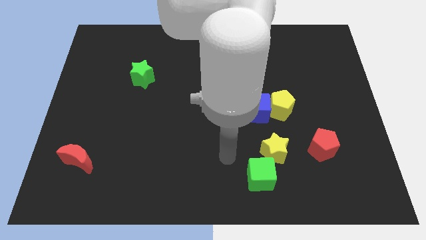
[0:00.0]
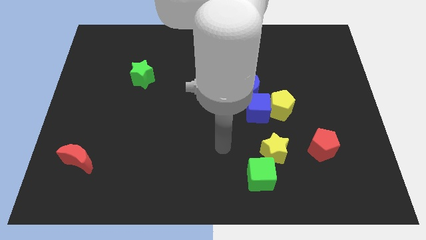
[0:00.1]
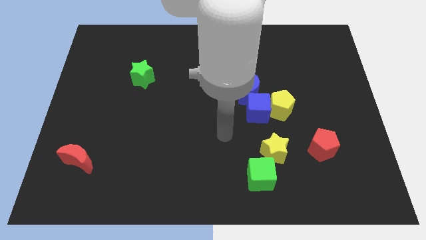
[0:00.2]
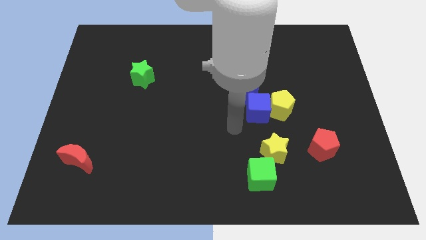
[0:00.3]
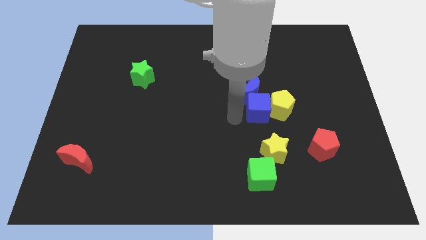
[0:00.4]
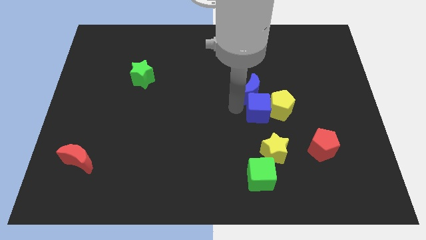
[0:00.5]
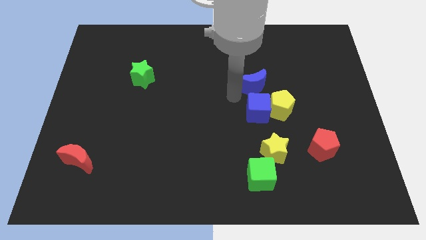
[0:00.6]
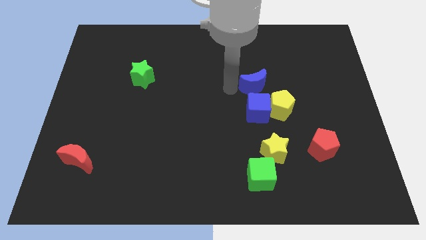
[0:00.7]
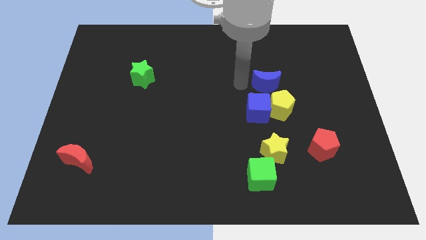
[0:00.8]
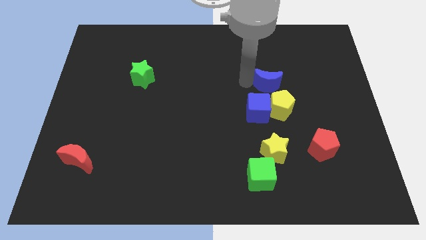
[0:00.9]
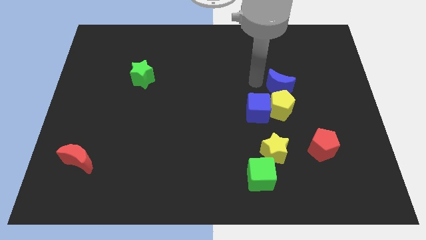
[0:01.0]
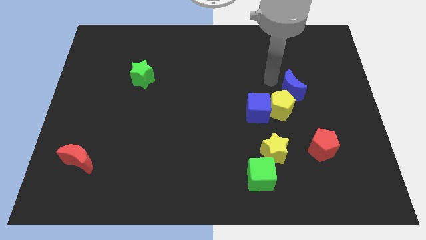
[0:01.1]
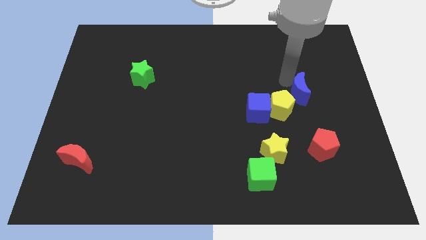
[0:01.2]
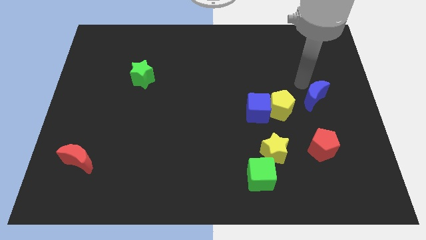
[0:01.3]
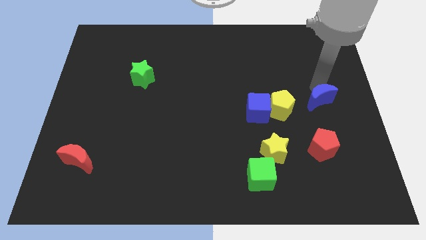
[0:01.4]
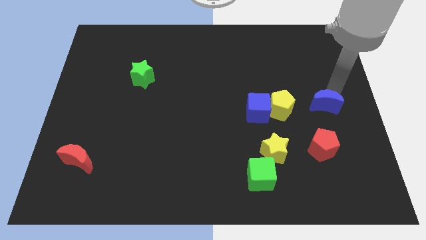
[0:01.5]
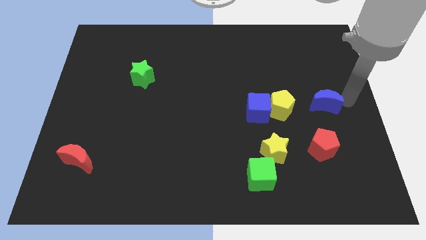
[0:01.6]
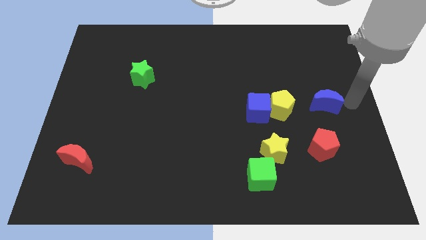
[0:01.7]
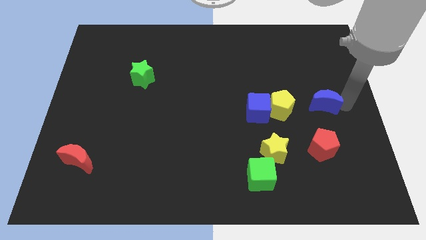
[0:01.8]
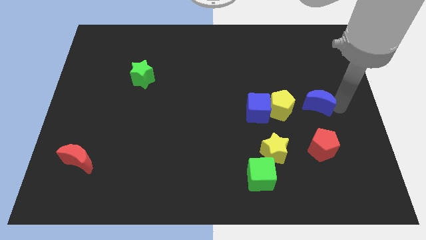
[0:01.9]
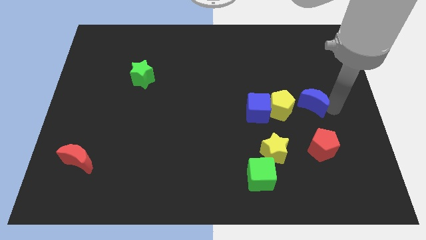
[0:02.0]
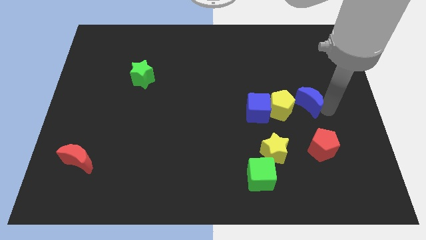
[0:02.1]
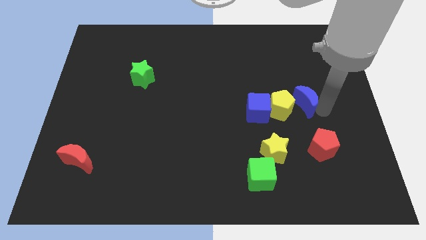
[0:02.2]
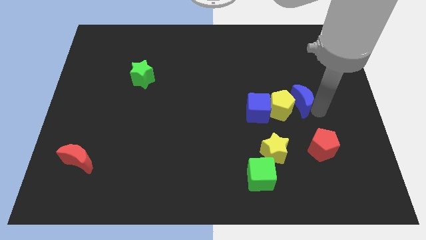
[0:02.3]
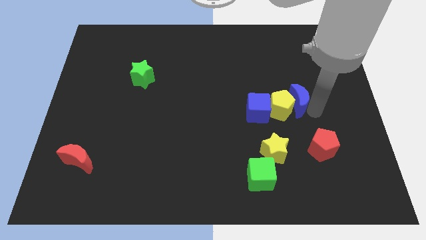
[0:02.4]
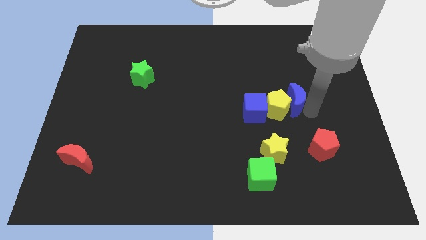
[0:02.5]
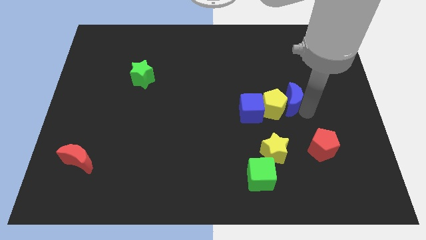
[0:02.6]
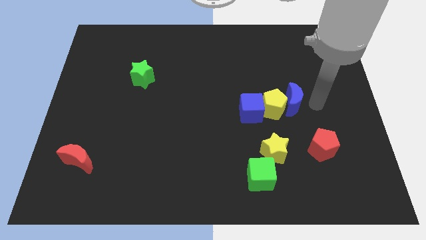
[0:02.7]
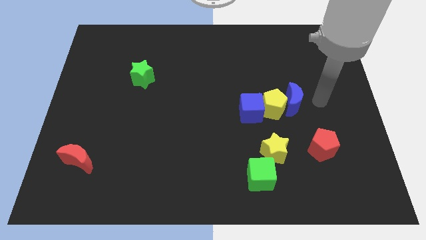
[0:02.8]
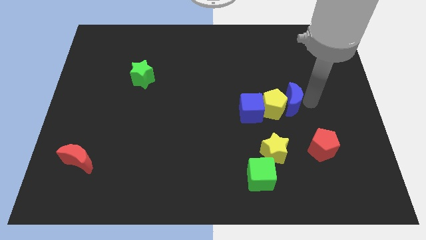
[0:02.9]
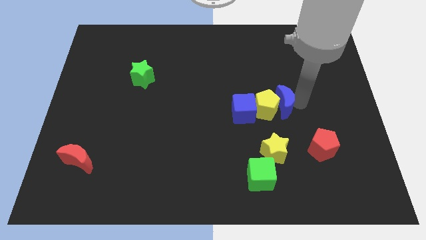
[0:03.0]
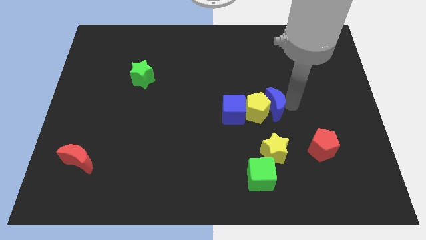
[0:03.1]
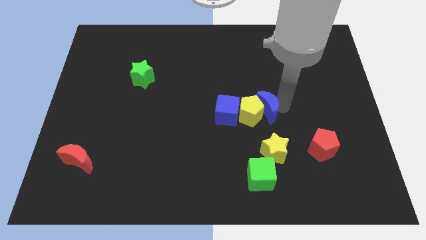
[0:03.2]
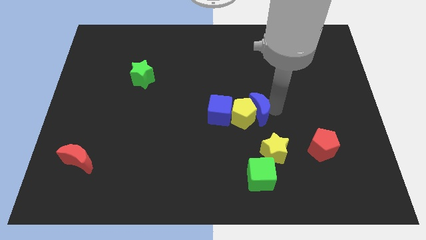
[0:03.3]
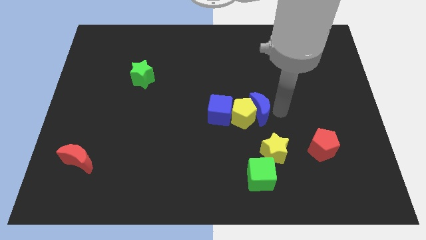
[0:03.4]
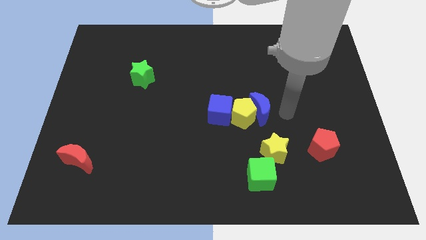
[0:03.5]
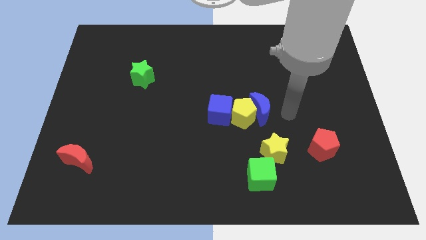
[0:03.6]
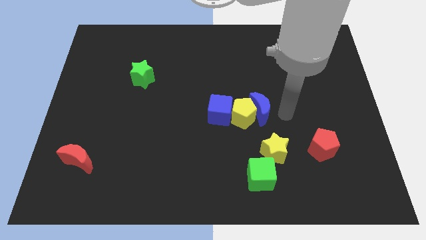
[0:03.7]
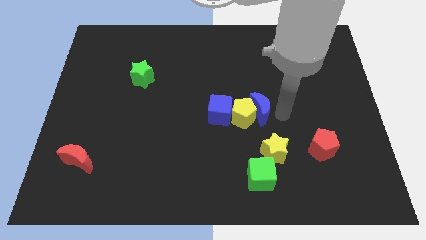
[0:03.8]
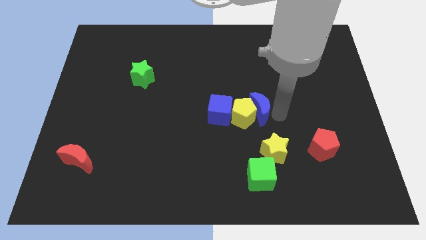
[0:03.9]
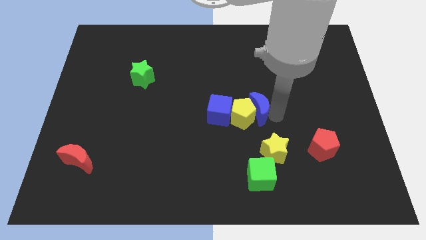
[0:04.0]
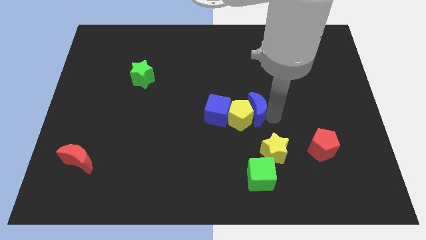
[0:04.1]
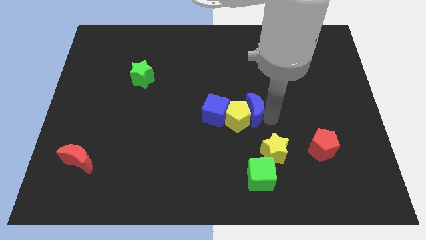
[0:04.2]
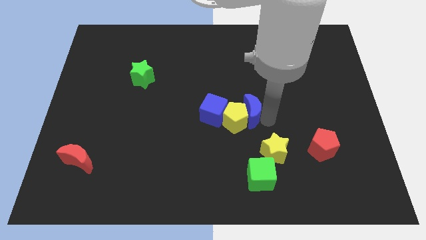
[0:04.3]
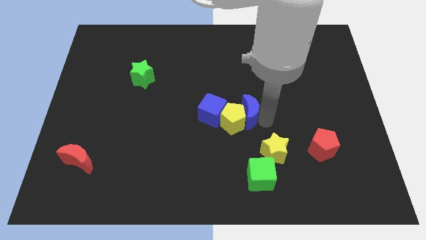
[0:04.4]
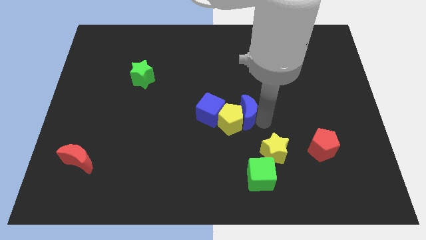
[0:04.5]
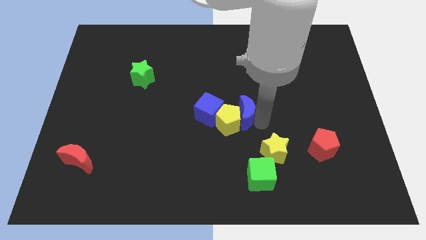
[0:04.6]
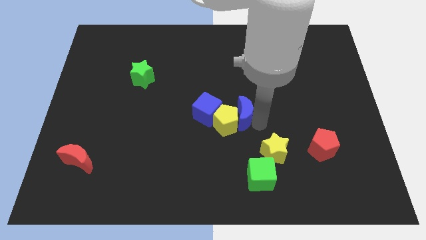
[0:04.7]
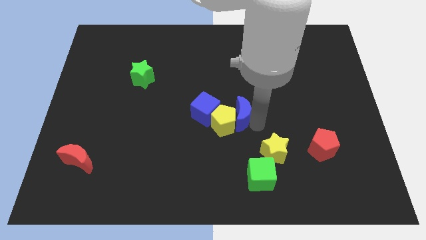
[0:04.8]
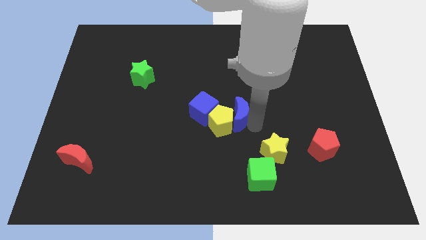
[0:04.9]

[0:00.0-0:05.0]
slightly slide the blue moon diagonally downwards and left

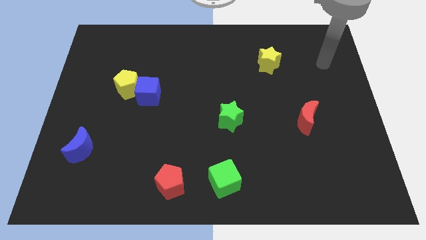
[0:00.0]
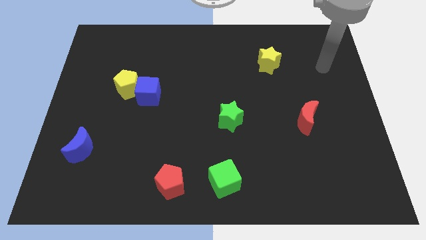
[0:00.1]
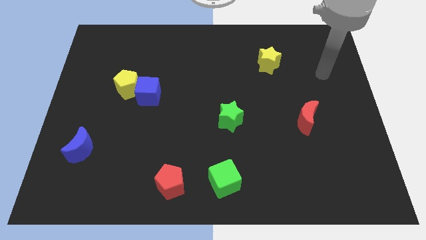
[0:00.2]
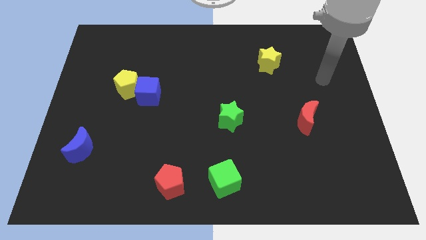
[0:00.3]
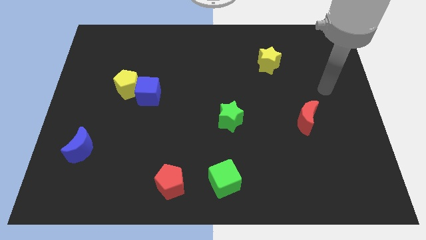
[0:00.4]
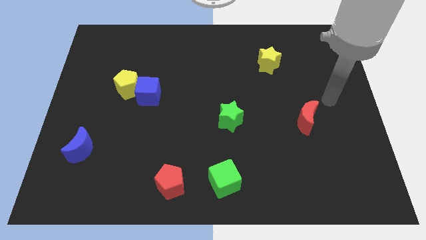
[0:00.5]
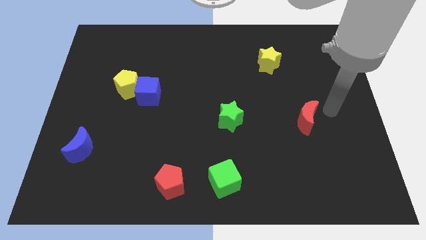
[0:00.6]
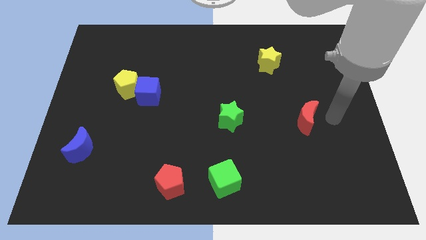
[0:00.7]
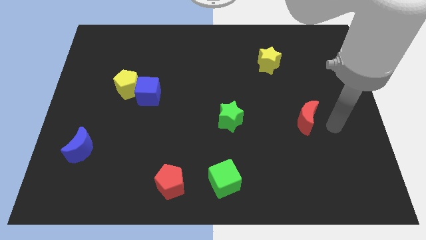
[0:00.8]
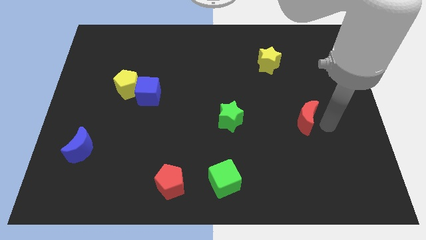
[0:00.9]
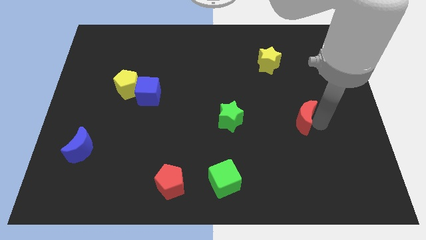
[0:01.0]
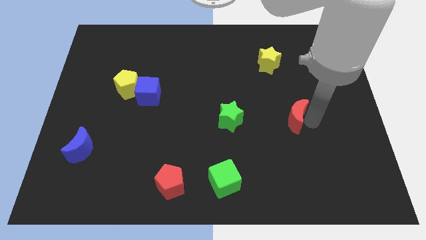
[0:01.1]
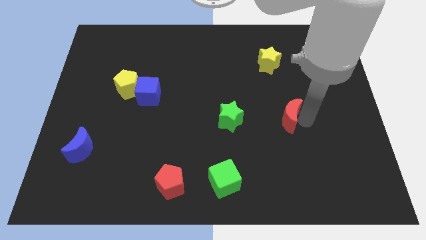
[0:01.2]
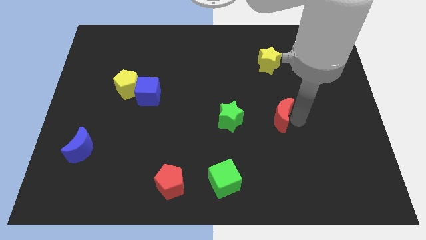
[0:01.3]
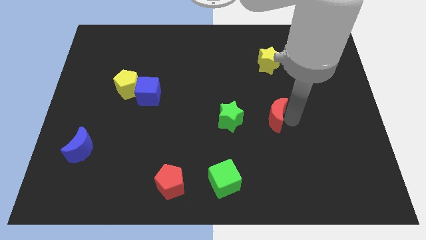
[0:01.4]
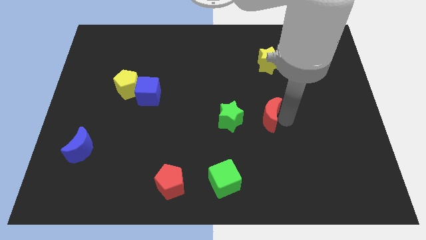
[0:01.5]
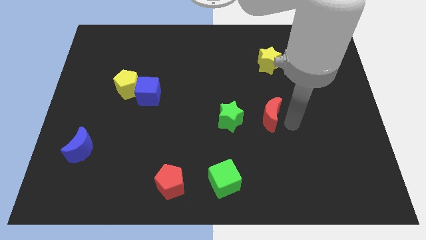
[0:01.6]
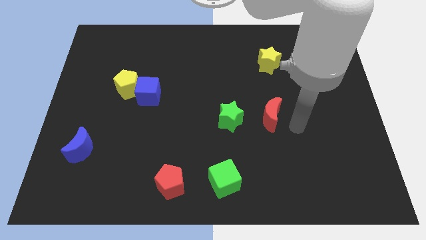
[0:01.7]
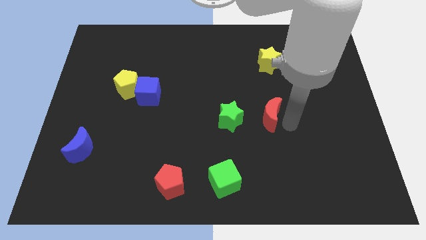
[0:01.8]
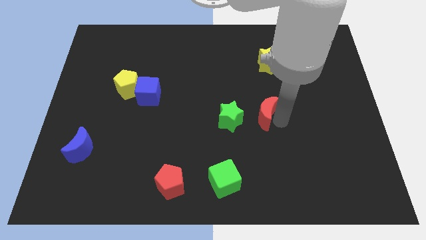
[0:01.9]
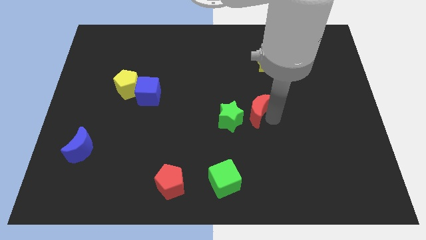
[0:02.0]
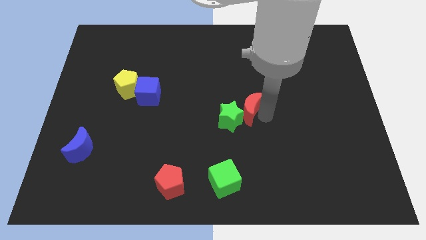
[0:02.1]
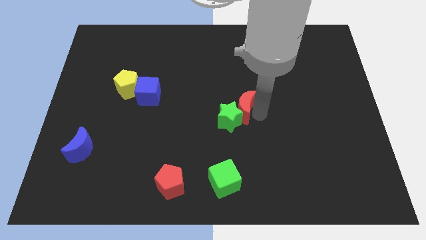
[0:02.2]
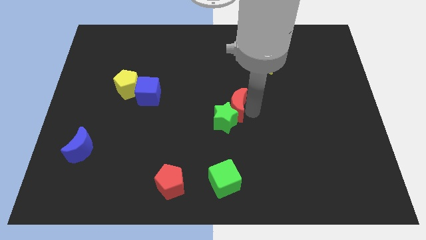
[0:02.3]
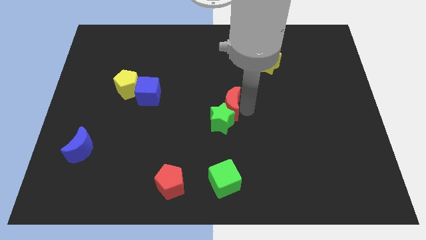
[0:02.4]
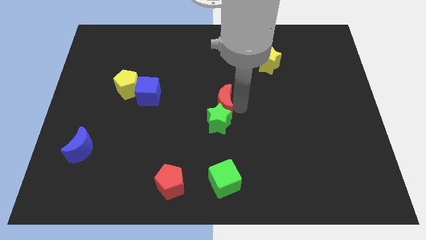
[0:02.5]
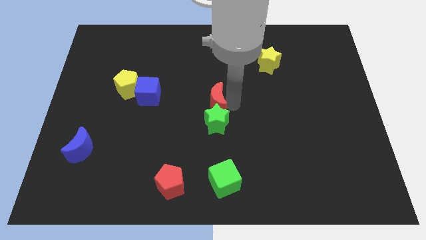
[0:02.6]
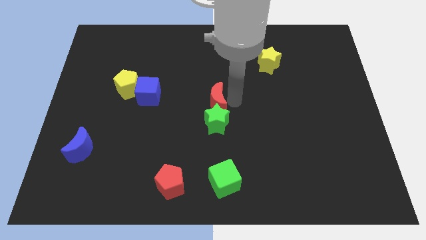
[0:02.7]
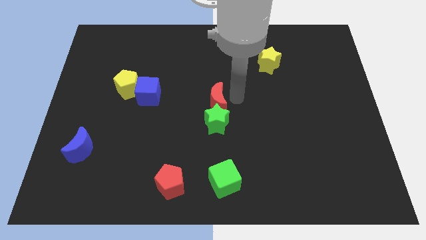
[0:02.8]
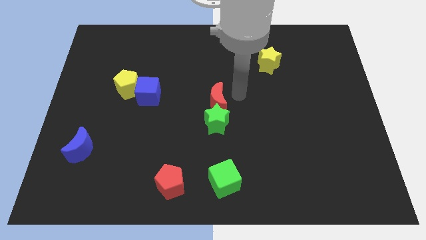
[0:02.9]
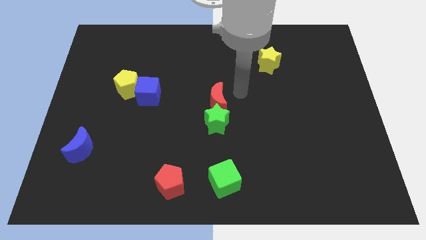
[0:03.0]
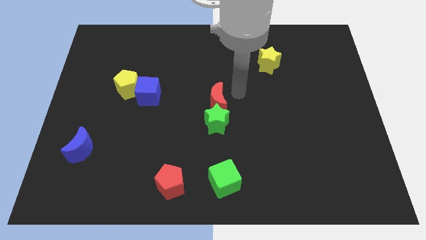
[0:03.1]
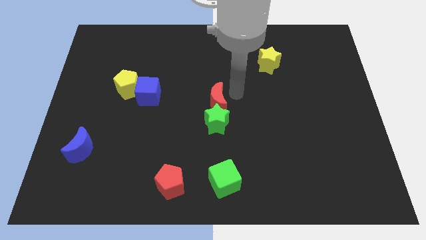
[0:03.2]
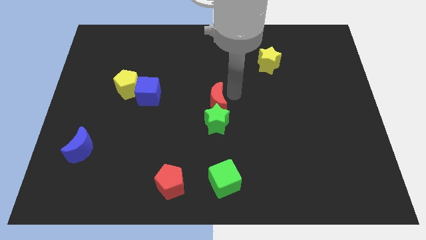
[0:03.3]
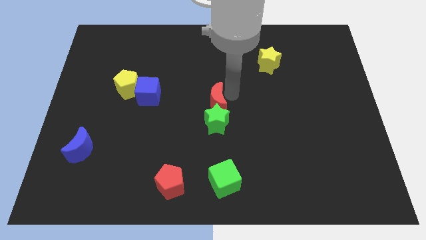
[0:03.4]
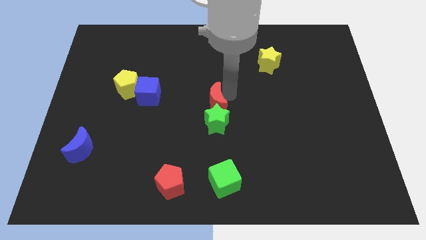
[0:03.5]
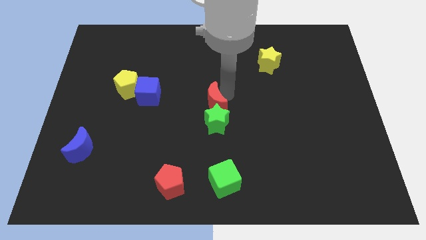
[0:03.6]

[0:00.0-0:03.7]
move the red moon to the left
